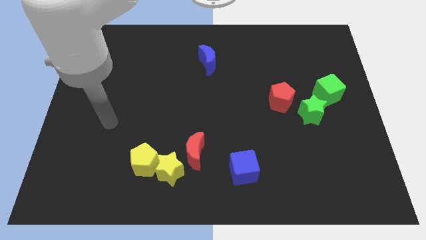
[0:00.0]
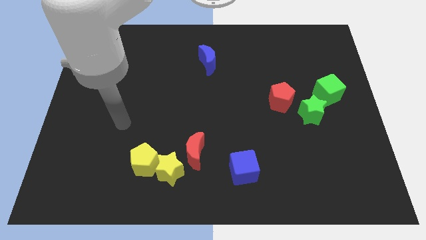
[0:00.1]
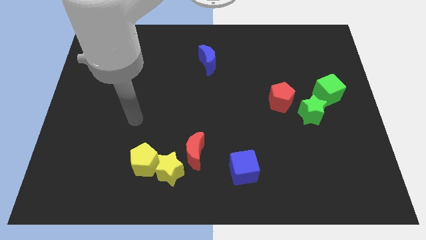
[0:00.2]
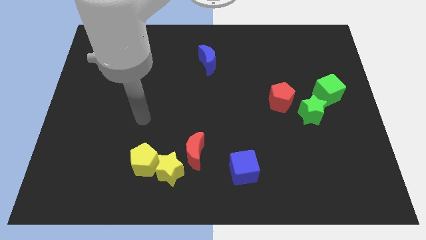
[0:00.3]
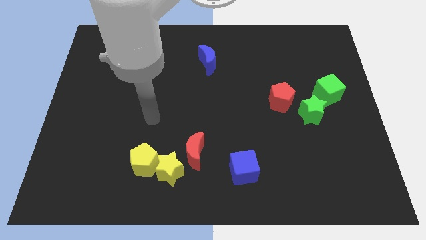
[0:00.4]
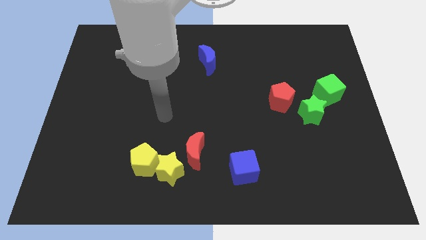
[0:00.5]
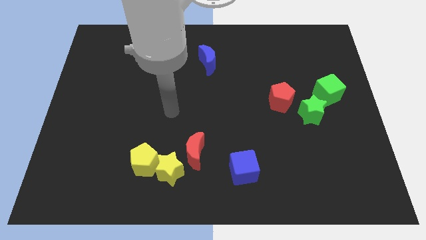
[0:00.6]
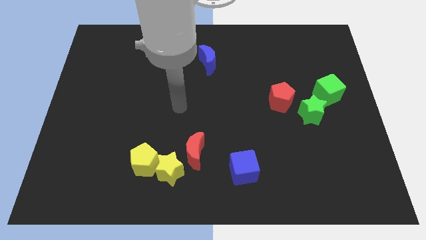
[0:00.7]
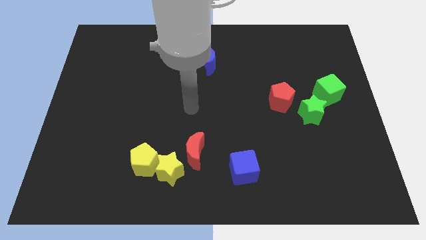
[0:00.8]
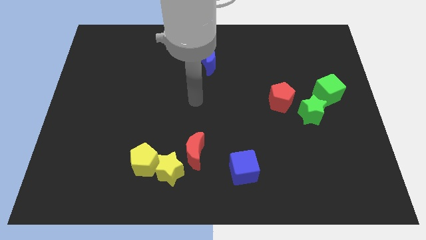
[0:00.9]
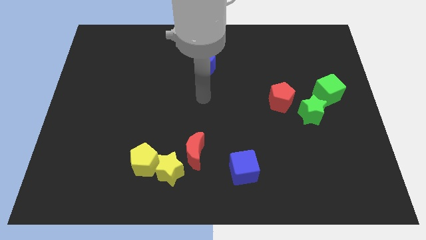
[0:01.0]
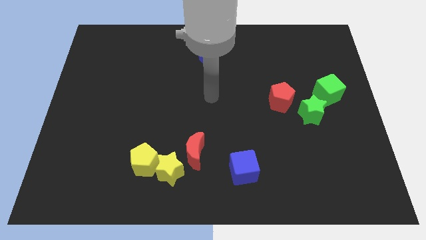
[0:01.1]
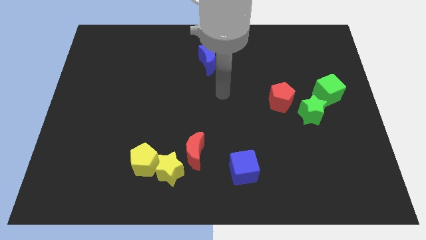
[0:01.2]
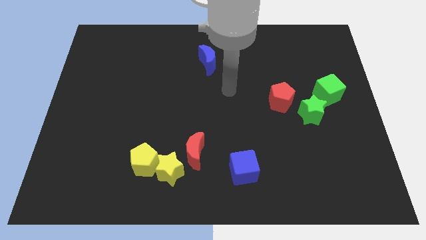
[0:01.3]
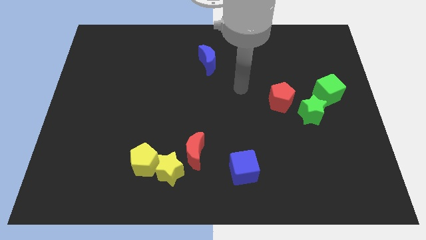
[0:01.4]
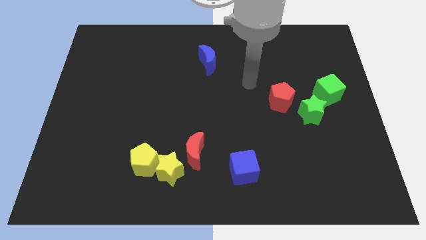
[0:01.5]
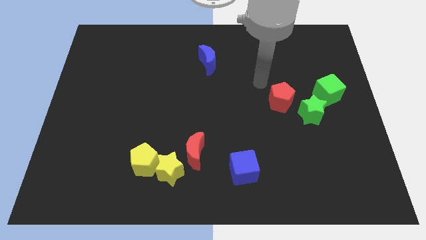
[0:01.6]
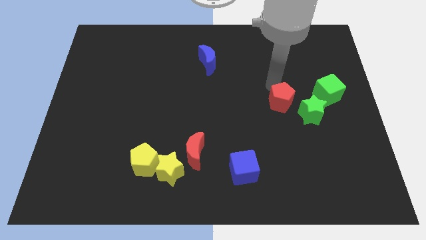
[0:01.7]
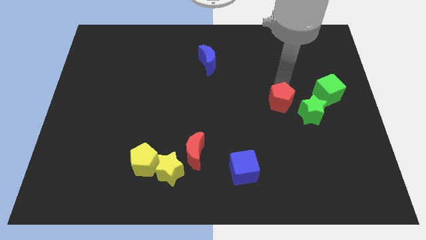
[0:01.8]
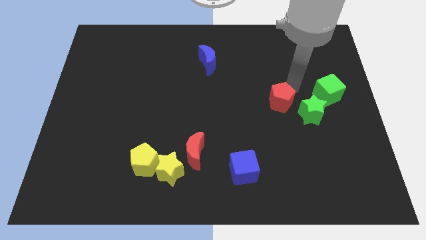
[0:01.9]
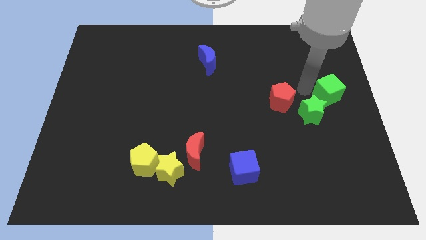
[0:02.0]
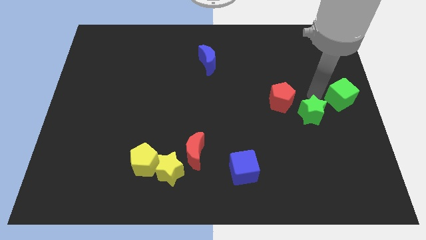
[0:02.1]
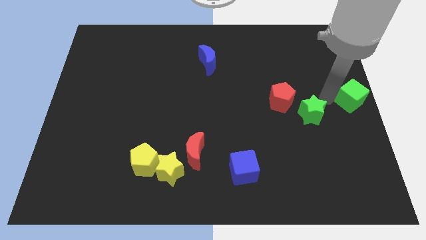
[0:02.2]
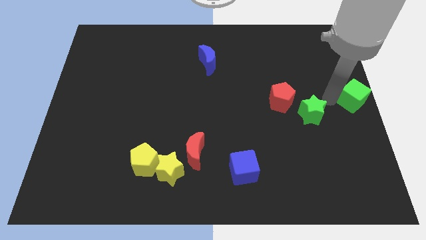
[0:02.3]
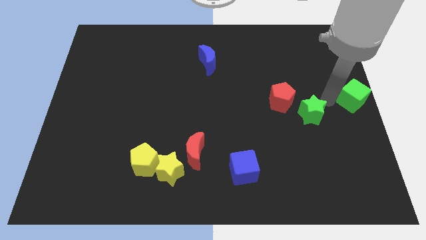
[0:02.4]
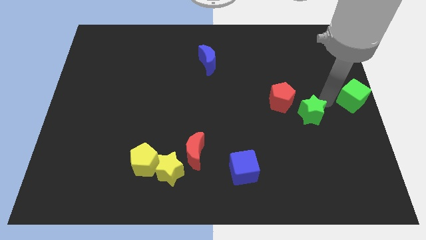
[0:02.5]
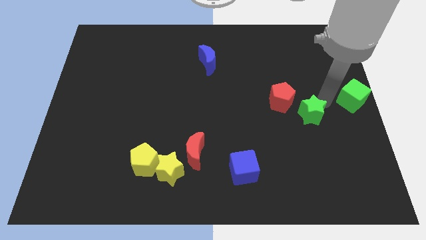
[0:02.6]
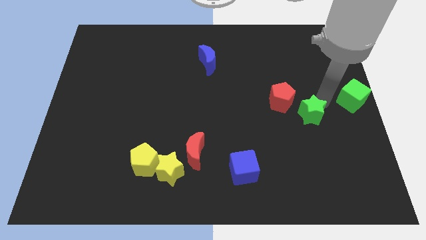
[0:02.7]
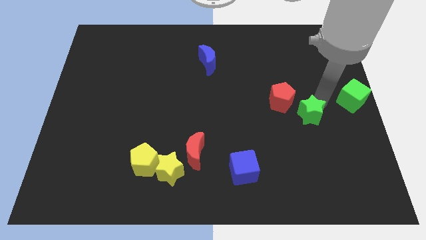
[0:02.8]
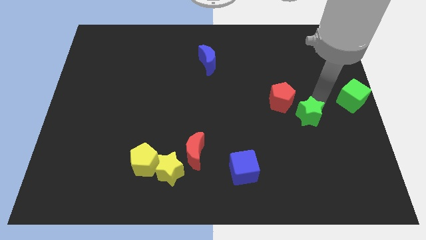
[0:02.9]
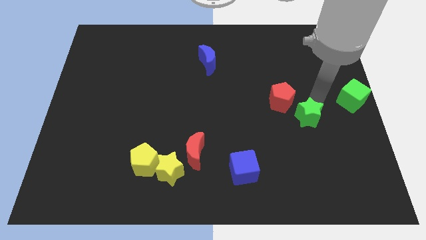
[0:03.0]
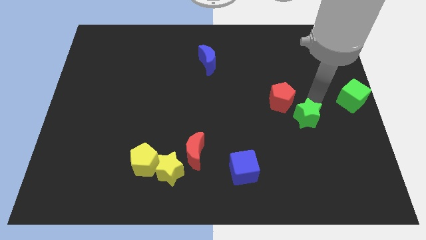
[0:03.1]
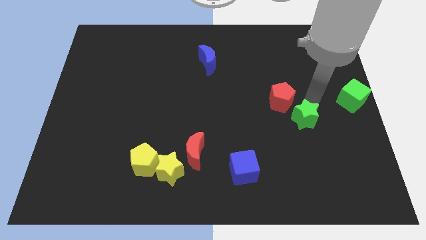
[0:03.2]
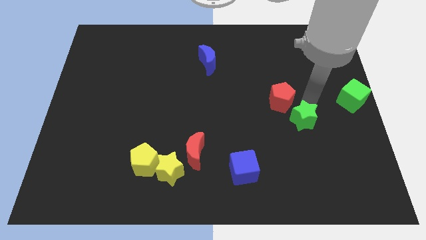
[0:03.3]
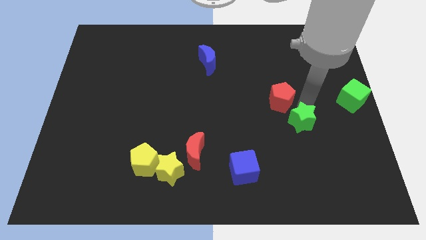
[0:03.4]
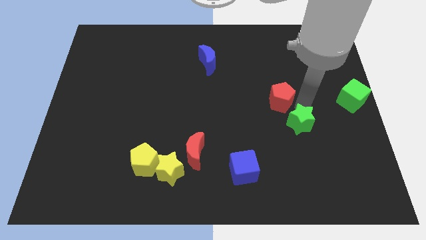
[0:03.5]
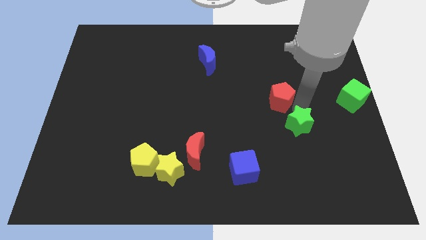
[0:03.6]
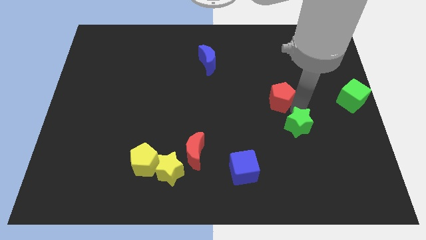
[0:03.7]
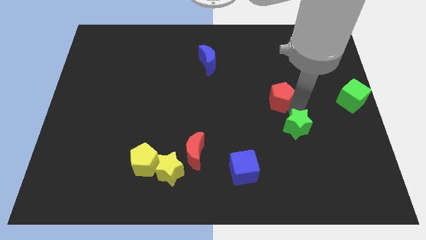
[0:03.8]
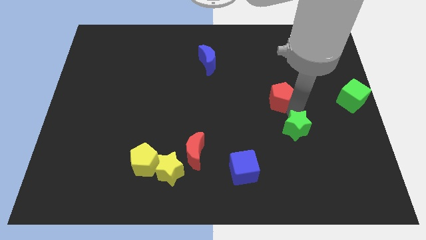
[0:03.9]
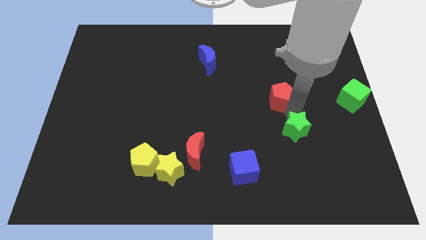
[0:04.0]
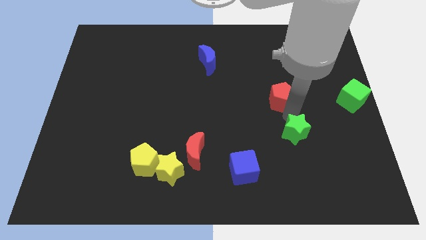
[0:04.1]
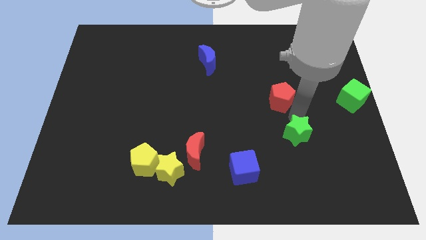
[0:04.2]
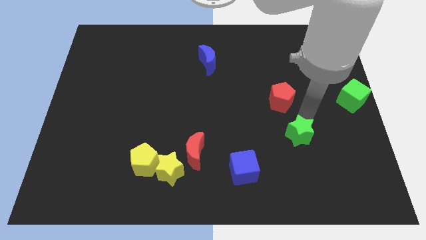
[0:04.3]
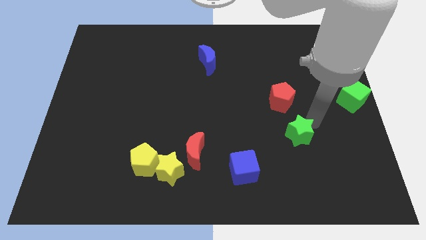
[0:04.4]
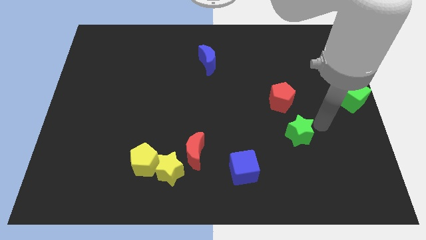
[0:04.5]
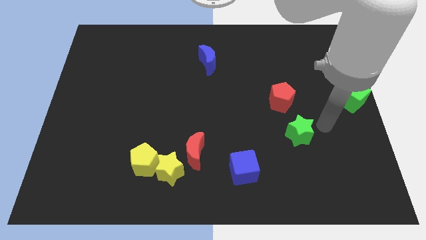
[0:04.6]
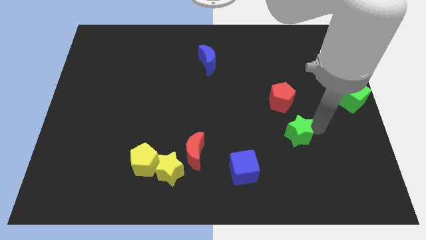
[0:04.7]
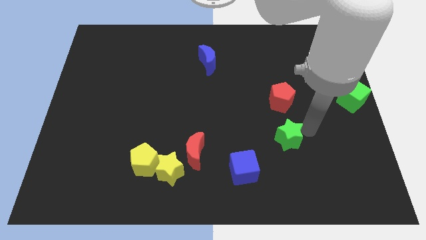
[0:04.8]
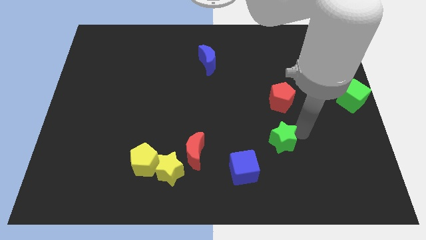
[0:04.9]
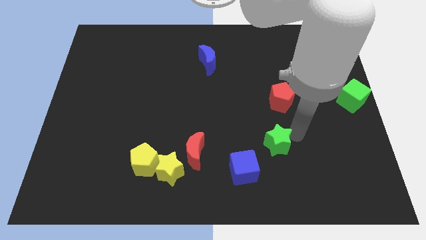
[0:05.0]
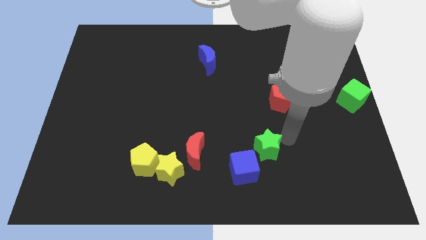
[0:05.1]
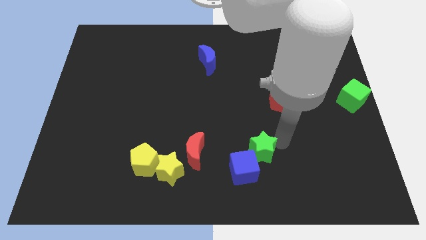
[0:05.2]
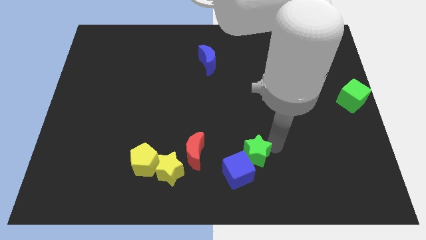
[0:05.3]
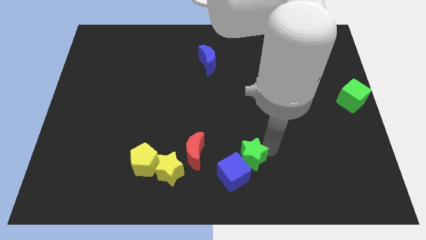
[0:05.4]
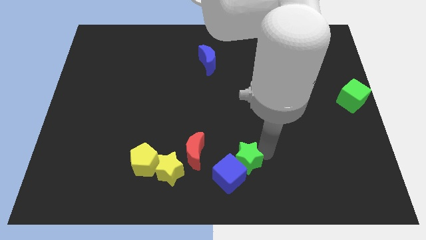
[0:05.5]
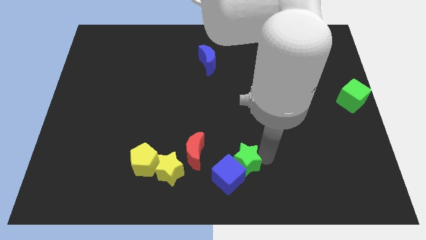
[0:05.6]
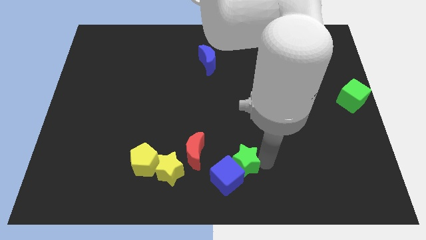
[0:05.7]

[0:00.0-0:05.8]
slide the green star right of the yellow star
